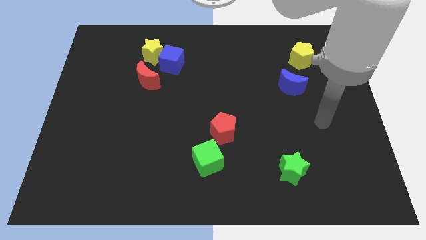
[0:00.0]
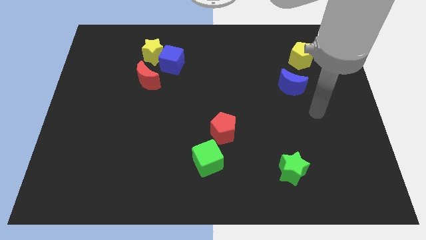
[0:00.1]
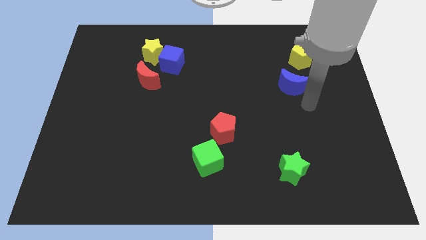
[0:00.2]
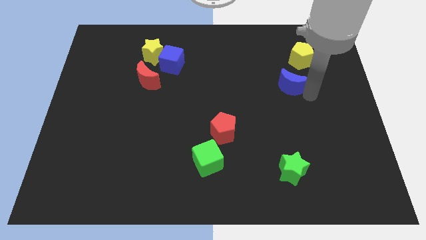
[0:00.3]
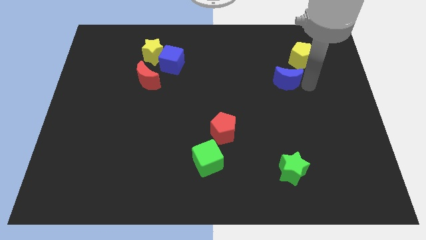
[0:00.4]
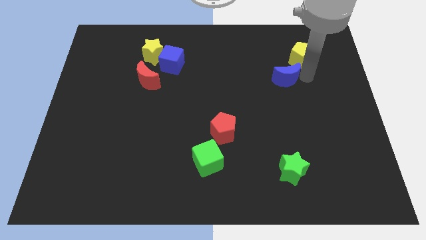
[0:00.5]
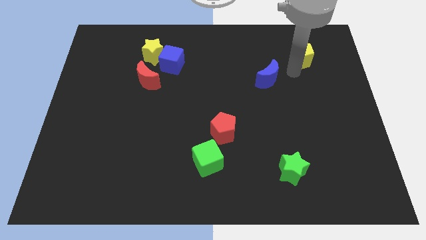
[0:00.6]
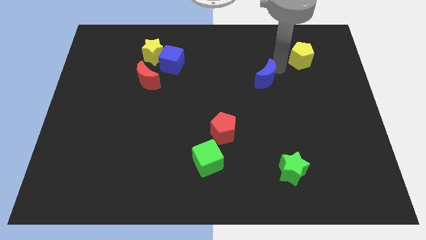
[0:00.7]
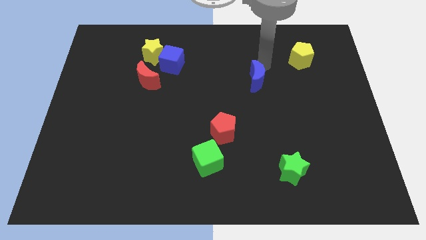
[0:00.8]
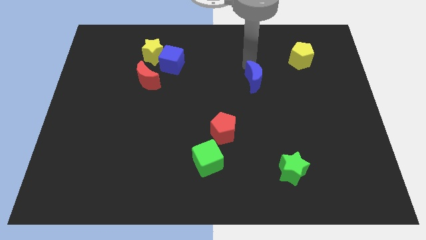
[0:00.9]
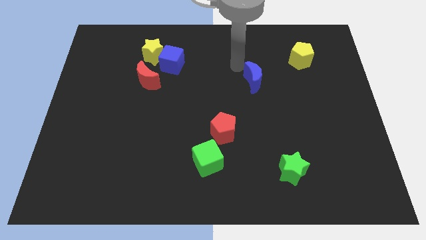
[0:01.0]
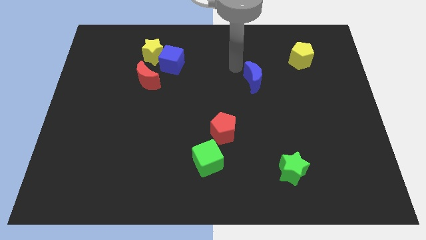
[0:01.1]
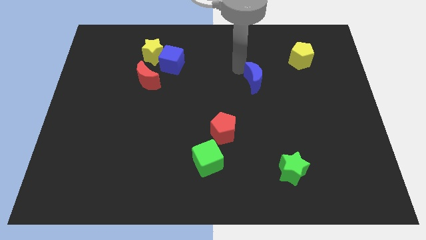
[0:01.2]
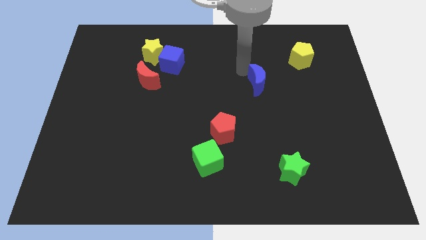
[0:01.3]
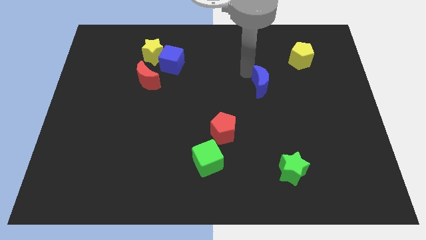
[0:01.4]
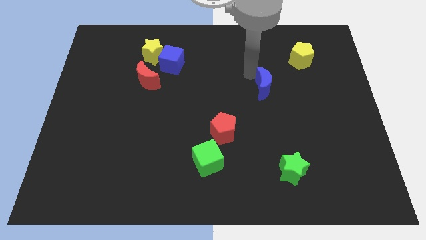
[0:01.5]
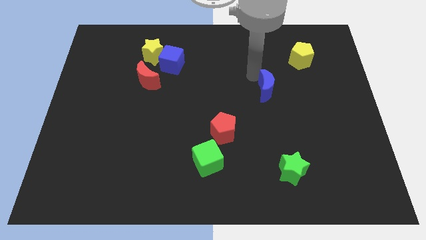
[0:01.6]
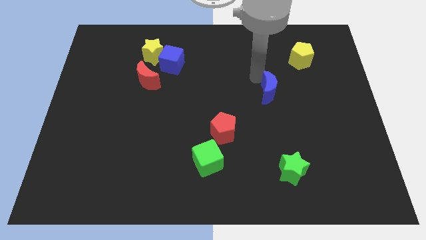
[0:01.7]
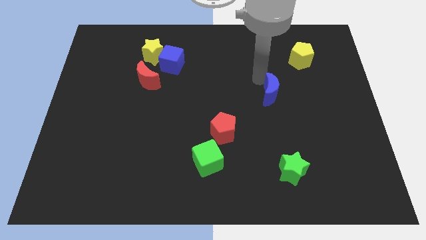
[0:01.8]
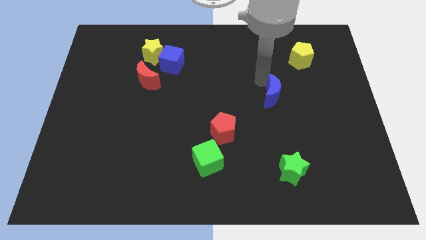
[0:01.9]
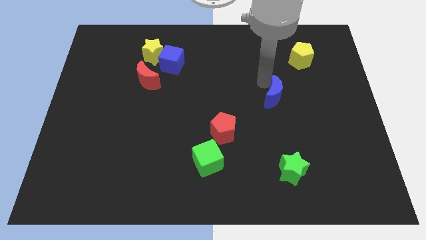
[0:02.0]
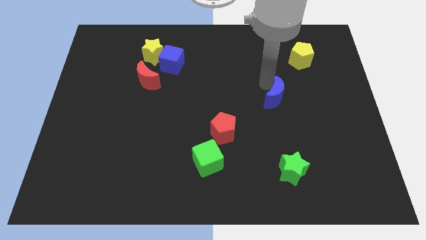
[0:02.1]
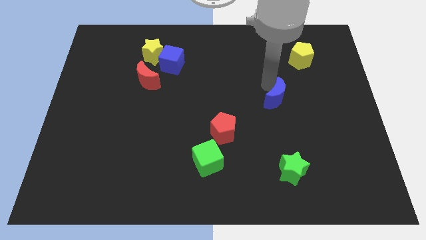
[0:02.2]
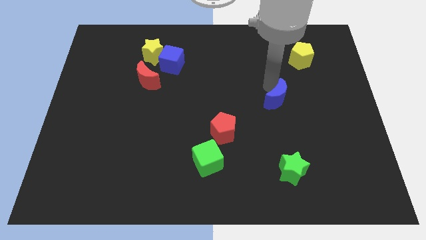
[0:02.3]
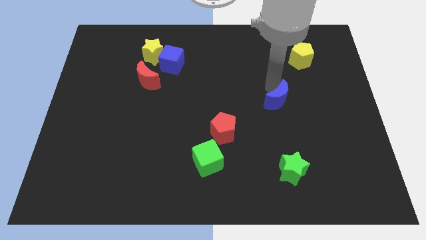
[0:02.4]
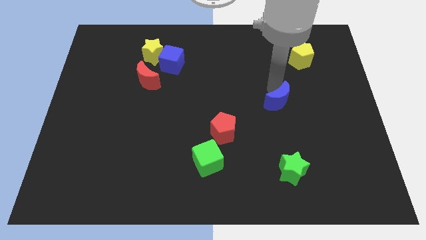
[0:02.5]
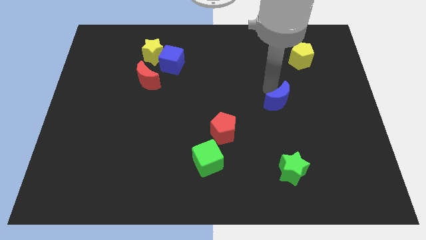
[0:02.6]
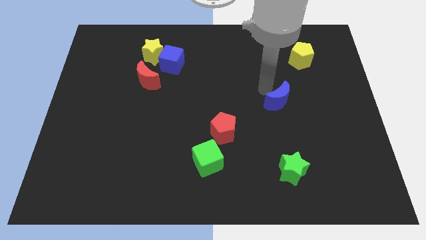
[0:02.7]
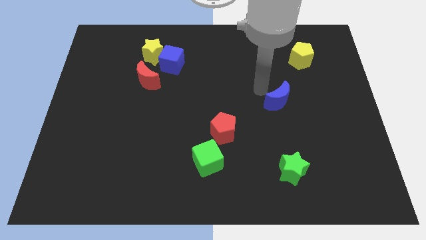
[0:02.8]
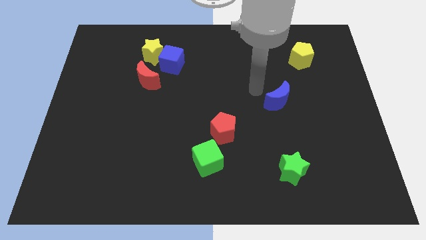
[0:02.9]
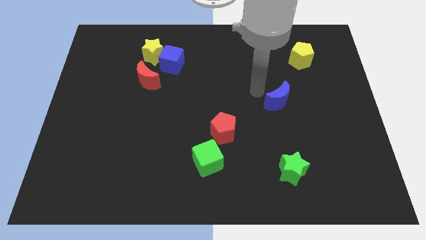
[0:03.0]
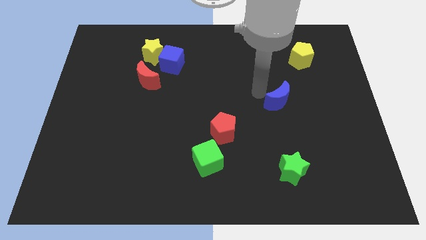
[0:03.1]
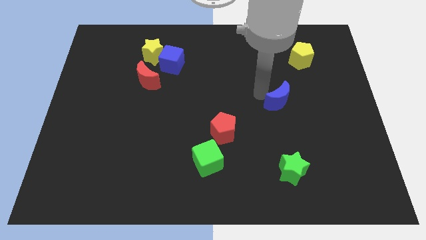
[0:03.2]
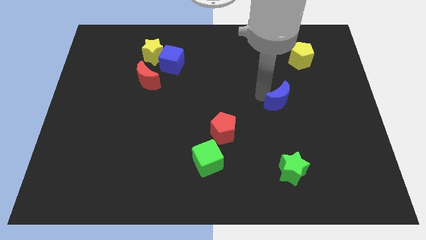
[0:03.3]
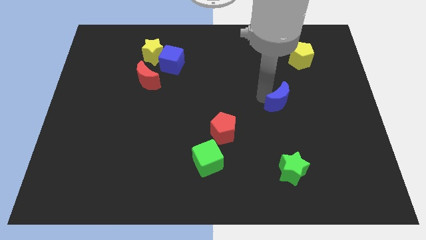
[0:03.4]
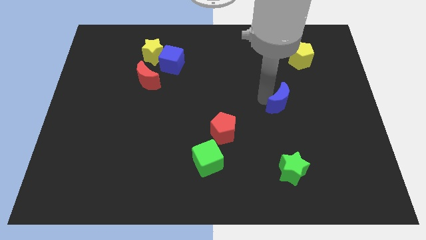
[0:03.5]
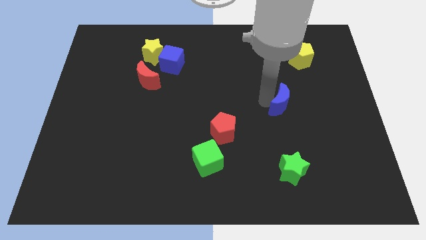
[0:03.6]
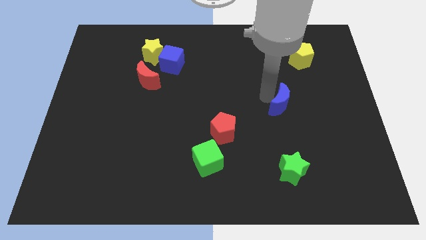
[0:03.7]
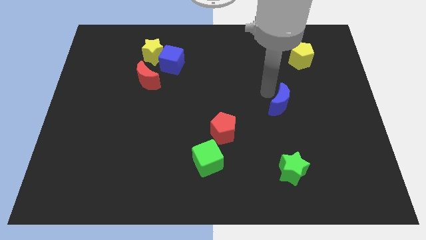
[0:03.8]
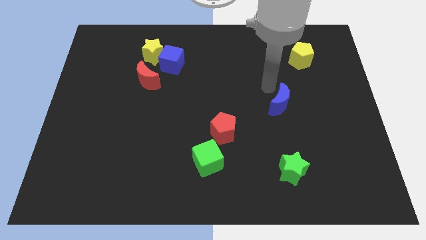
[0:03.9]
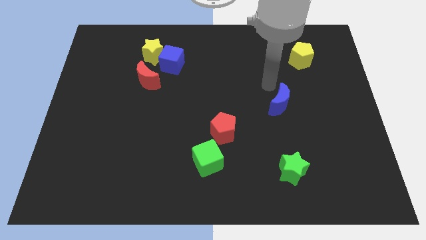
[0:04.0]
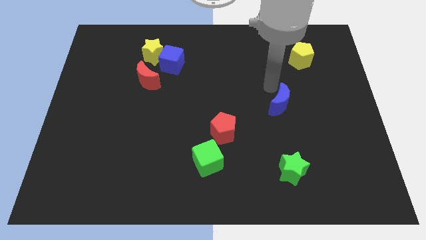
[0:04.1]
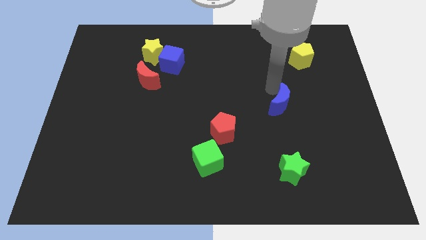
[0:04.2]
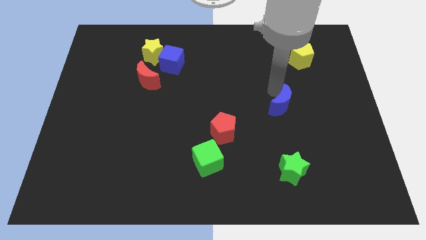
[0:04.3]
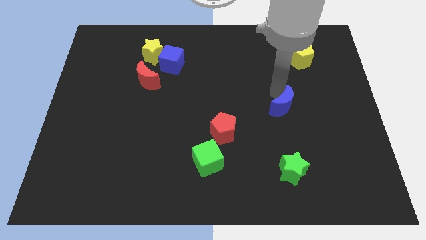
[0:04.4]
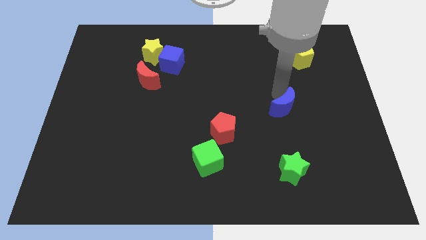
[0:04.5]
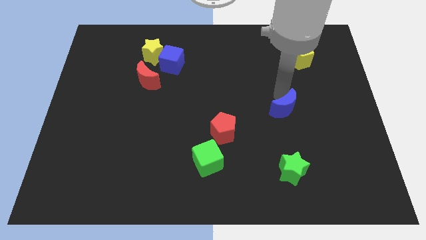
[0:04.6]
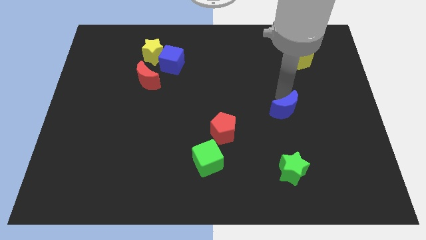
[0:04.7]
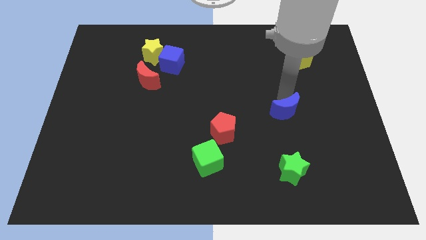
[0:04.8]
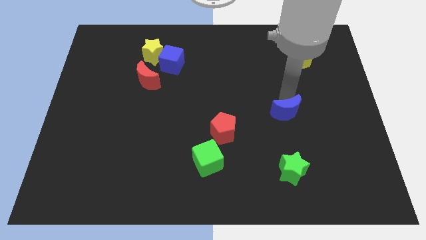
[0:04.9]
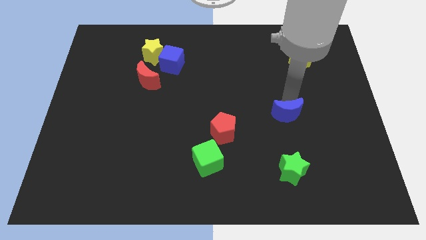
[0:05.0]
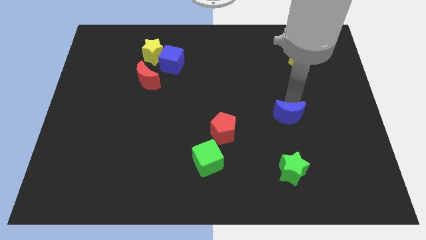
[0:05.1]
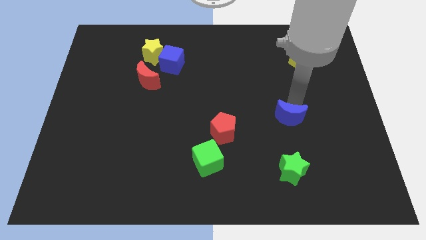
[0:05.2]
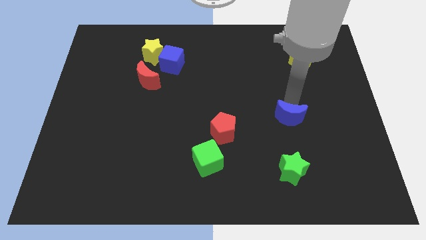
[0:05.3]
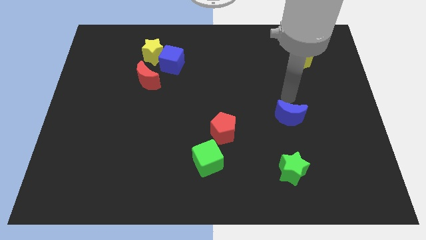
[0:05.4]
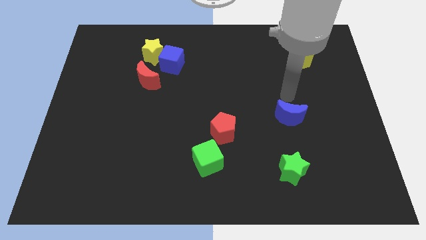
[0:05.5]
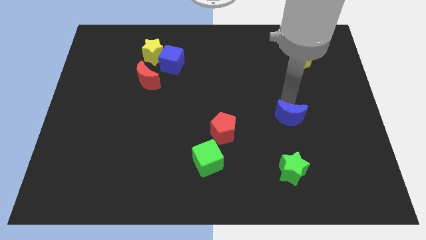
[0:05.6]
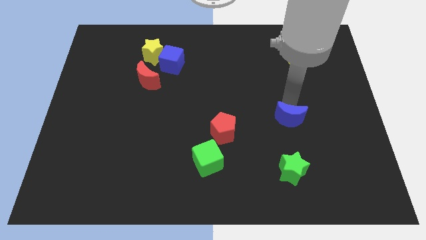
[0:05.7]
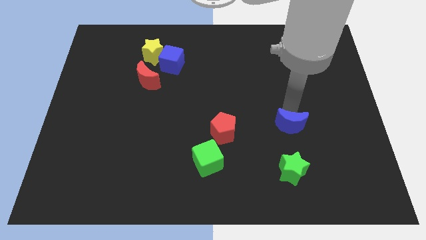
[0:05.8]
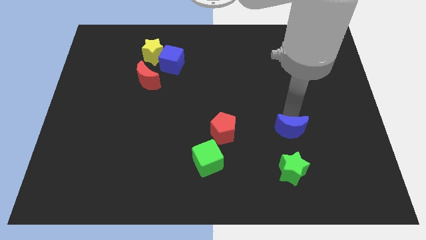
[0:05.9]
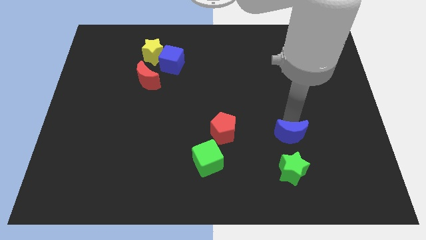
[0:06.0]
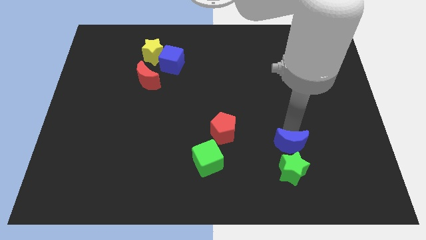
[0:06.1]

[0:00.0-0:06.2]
move the blue moon next to the green star

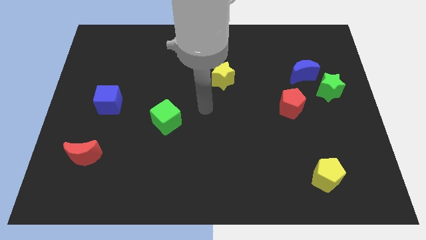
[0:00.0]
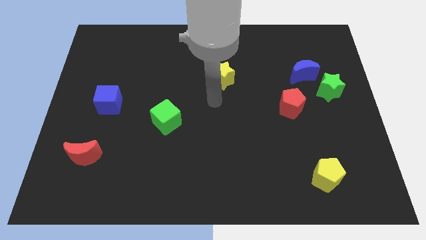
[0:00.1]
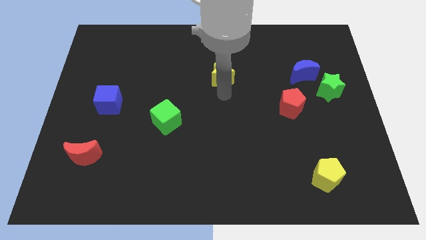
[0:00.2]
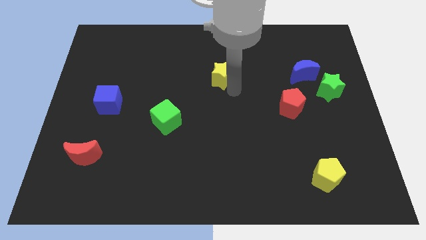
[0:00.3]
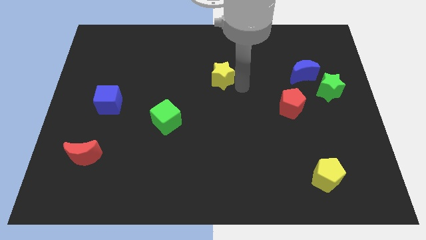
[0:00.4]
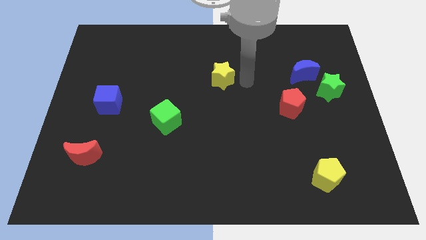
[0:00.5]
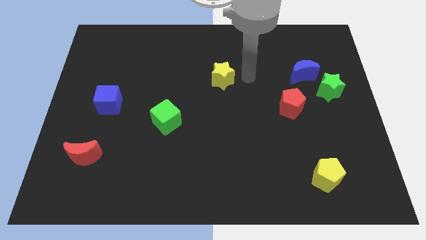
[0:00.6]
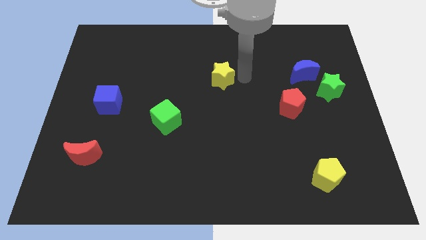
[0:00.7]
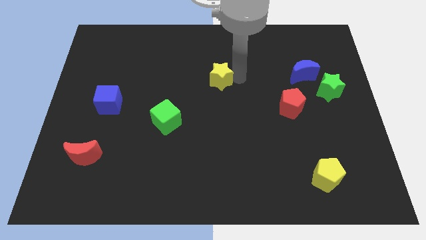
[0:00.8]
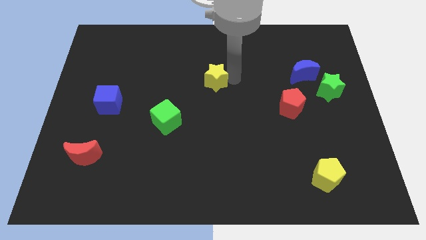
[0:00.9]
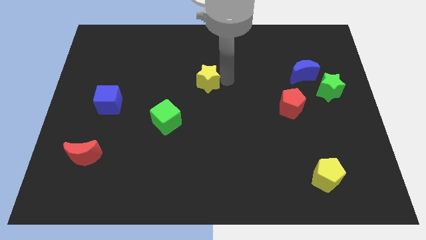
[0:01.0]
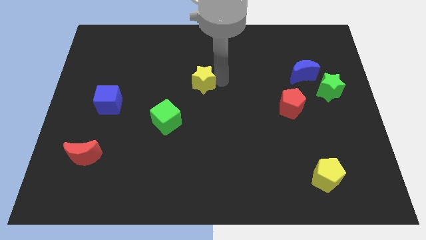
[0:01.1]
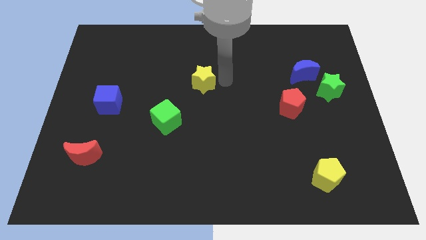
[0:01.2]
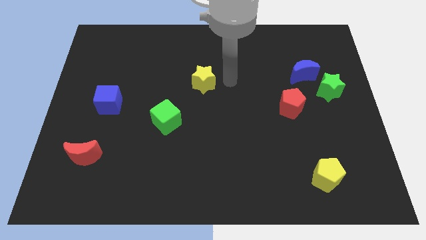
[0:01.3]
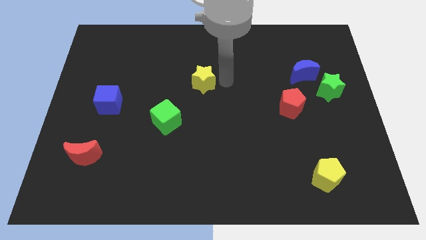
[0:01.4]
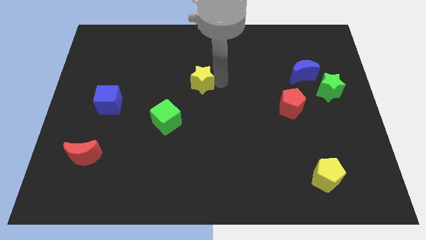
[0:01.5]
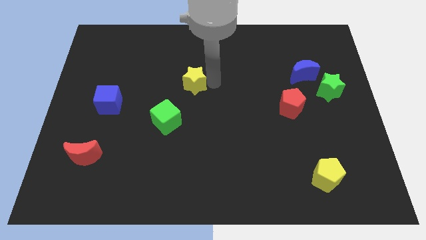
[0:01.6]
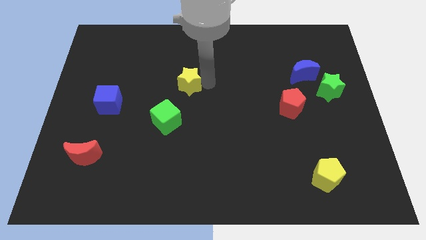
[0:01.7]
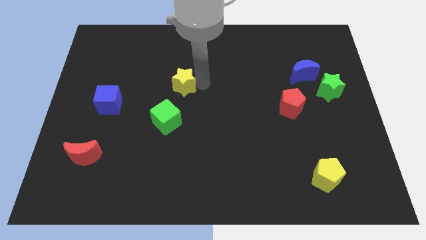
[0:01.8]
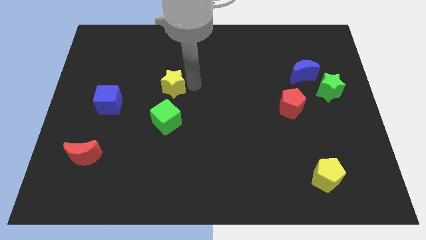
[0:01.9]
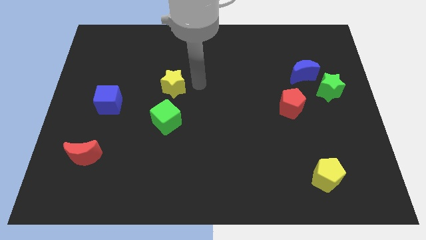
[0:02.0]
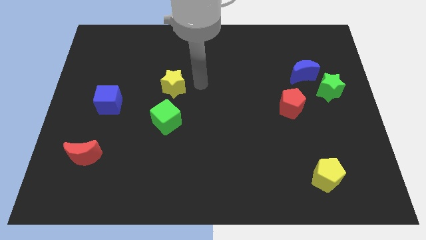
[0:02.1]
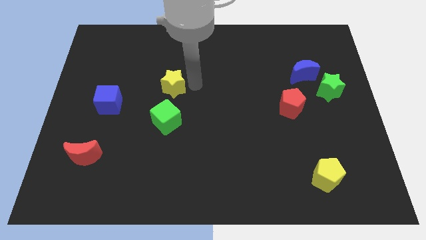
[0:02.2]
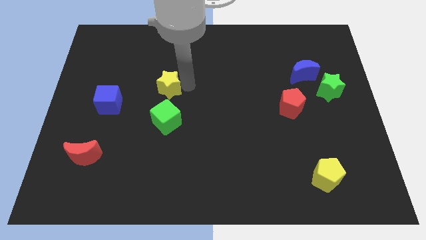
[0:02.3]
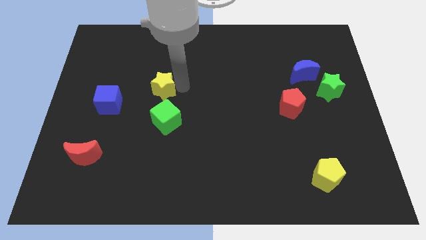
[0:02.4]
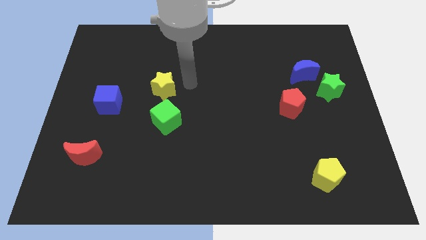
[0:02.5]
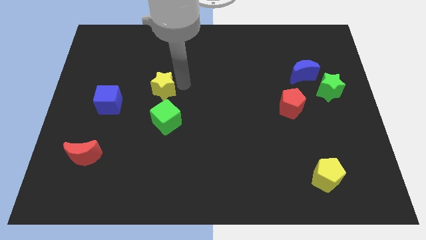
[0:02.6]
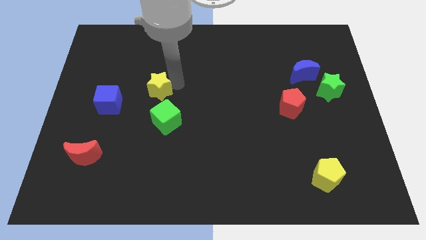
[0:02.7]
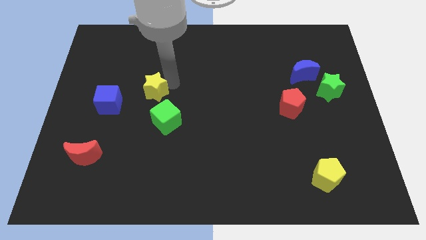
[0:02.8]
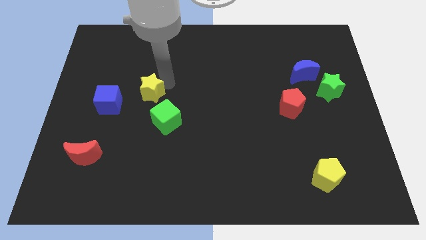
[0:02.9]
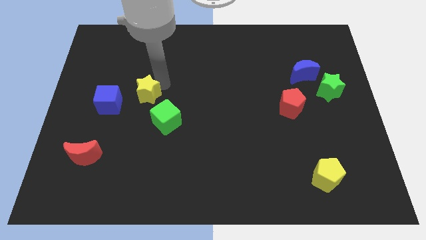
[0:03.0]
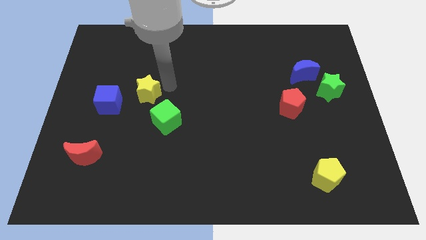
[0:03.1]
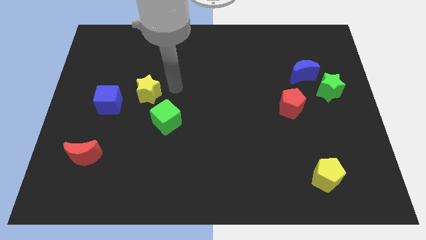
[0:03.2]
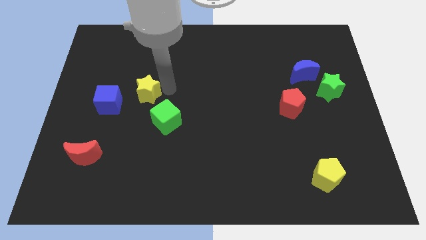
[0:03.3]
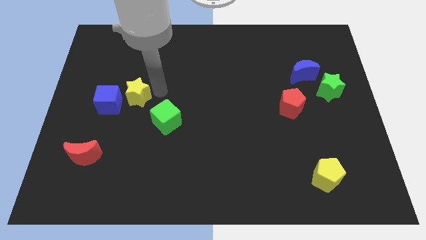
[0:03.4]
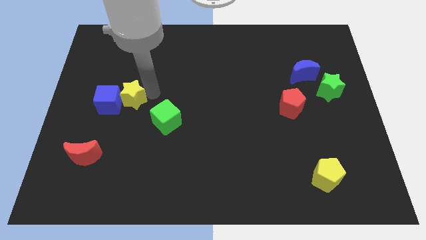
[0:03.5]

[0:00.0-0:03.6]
move the yellow star to the blue cube
